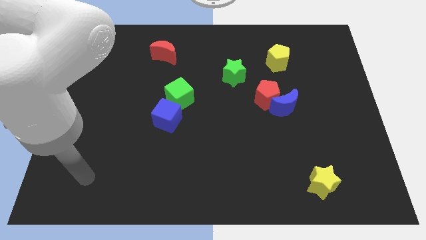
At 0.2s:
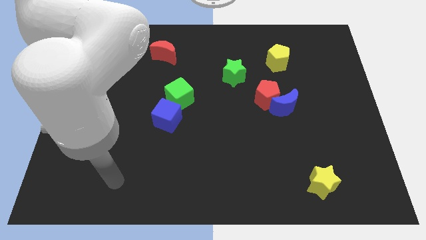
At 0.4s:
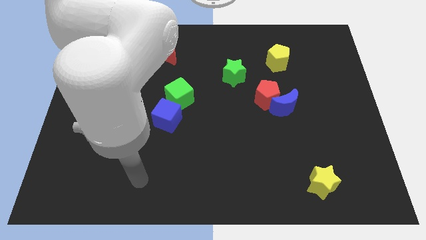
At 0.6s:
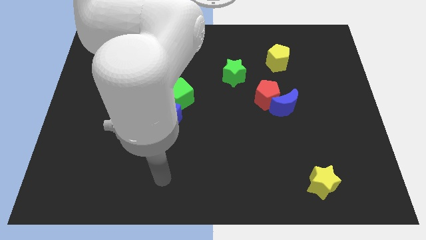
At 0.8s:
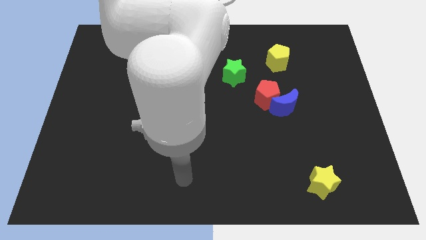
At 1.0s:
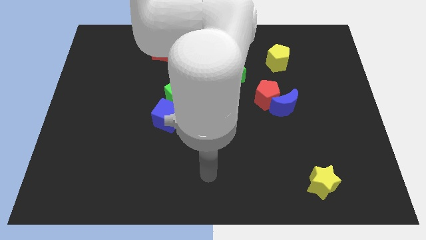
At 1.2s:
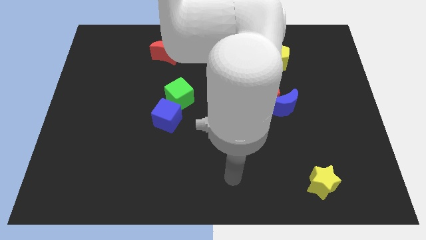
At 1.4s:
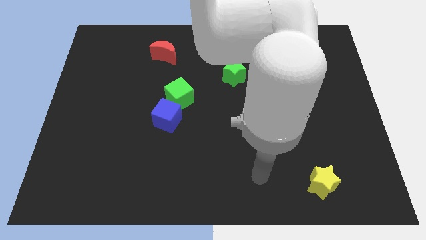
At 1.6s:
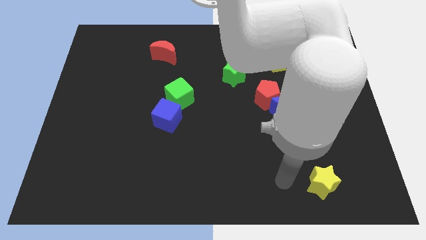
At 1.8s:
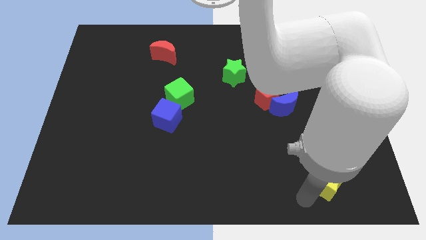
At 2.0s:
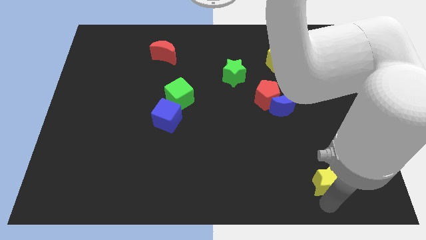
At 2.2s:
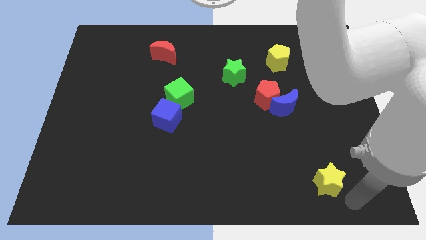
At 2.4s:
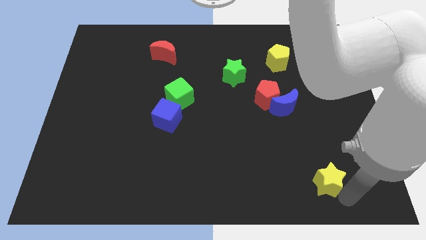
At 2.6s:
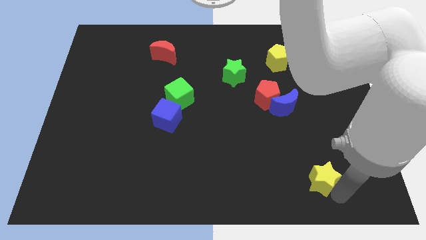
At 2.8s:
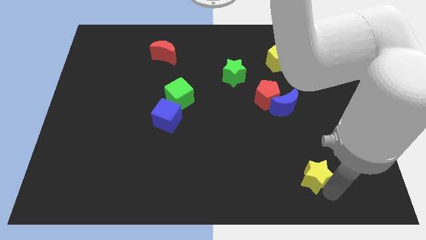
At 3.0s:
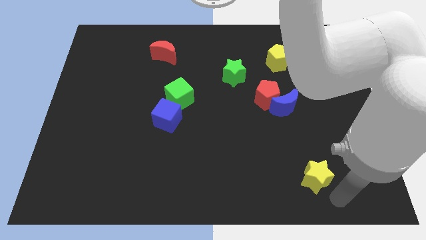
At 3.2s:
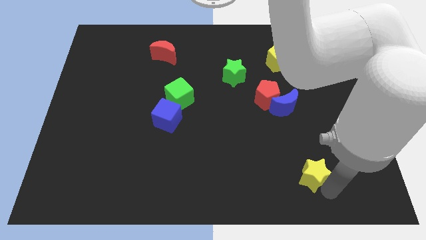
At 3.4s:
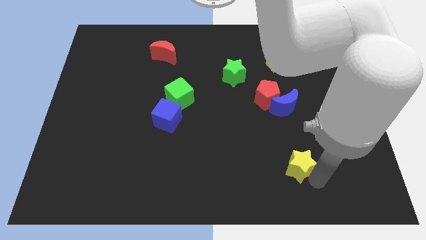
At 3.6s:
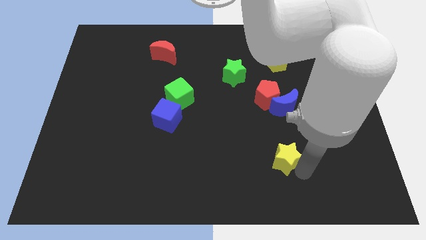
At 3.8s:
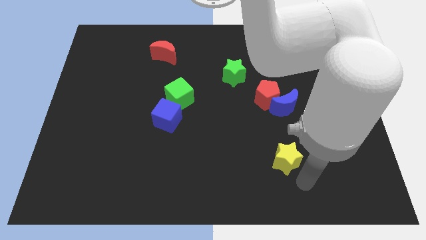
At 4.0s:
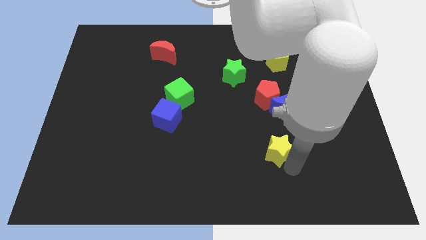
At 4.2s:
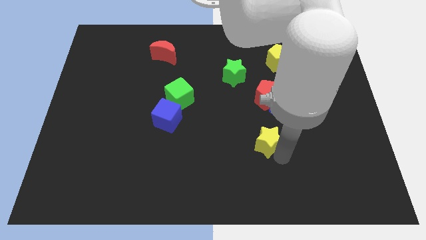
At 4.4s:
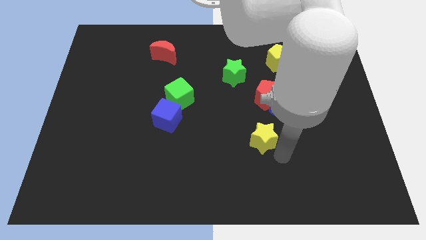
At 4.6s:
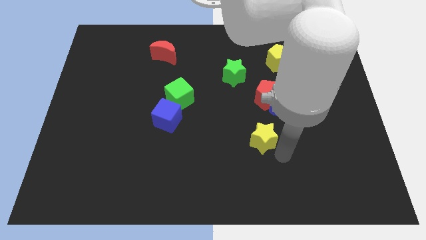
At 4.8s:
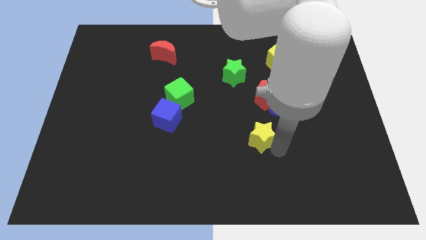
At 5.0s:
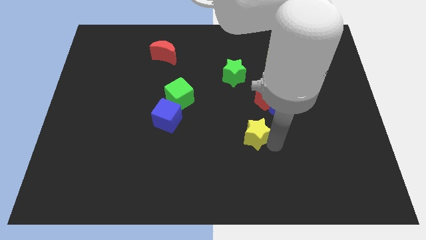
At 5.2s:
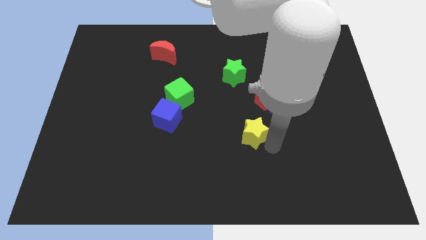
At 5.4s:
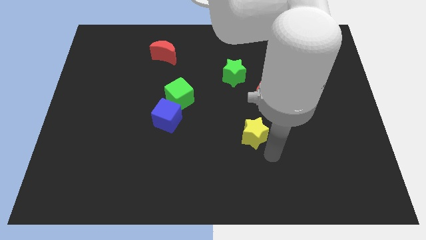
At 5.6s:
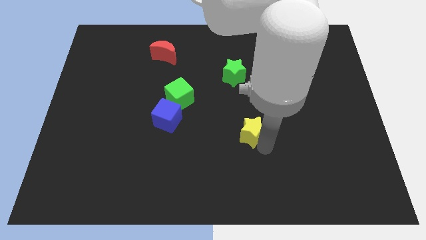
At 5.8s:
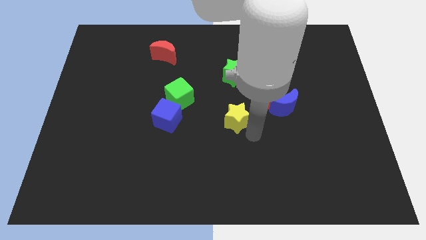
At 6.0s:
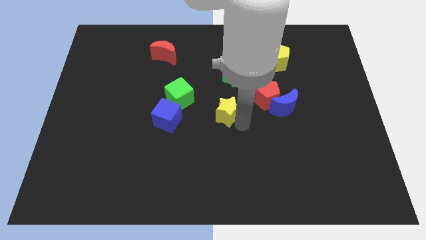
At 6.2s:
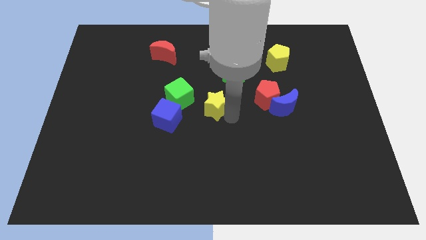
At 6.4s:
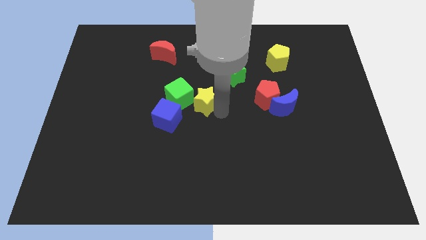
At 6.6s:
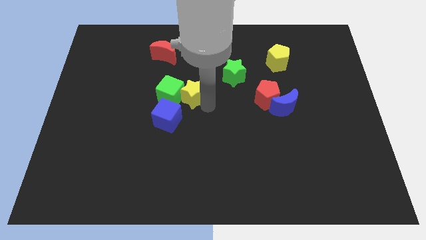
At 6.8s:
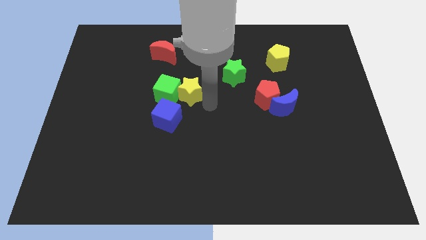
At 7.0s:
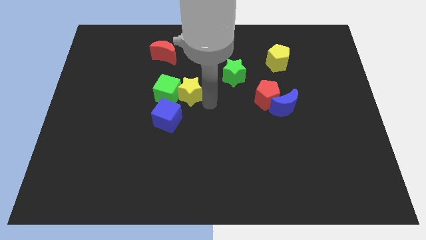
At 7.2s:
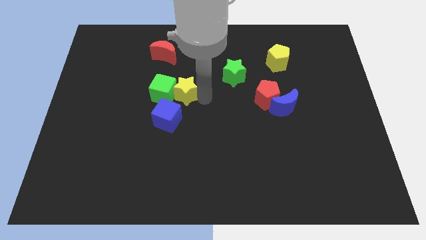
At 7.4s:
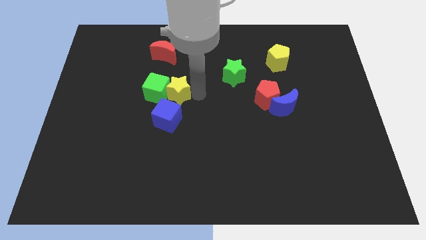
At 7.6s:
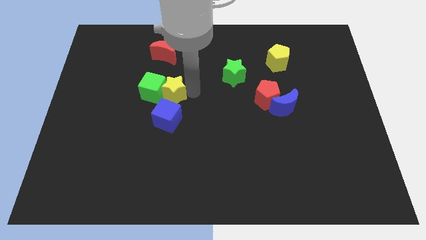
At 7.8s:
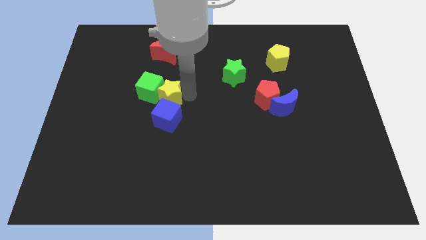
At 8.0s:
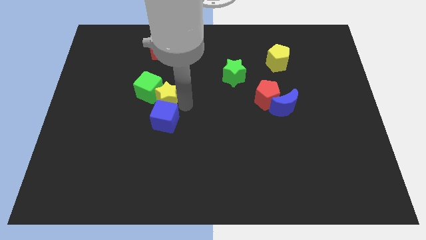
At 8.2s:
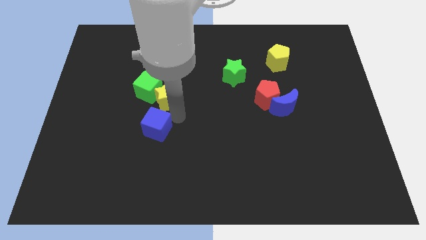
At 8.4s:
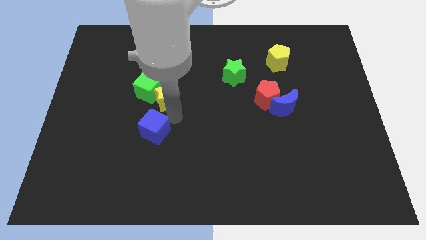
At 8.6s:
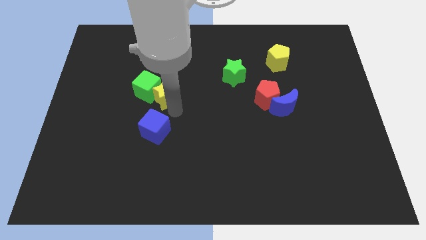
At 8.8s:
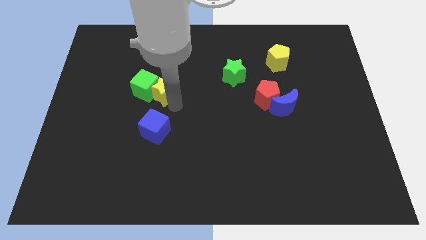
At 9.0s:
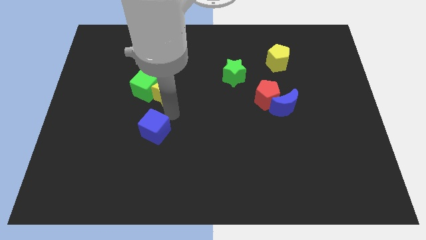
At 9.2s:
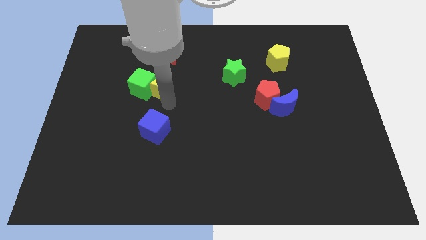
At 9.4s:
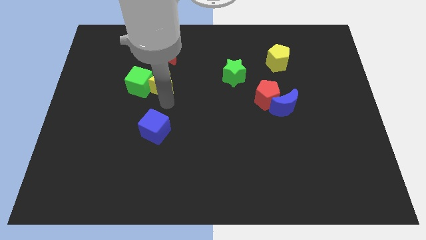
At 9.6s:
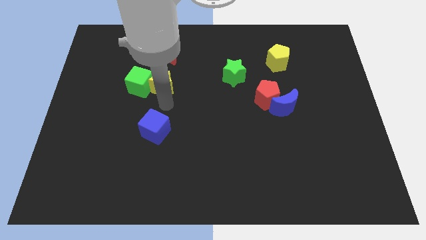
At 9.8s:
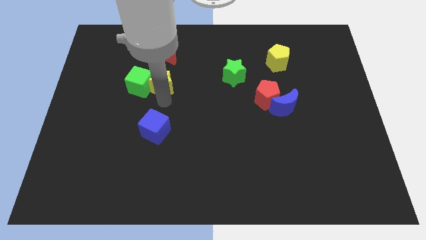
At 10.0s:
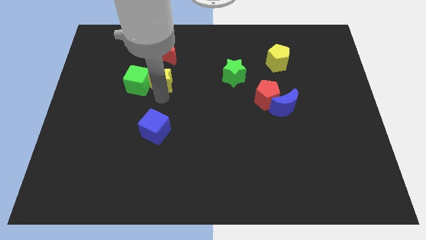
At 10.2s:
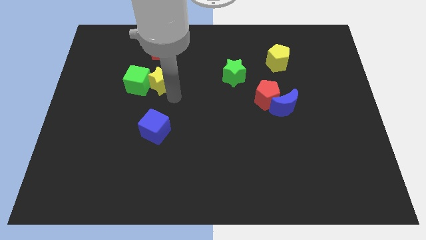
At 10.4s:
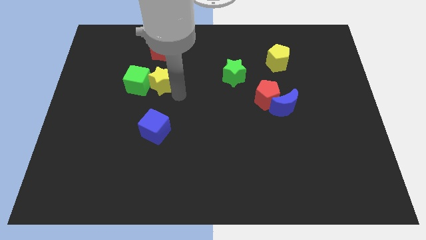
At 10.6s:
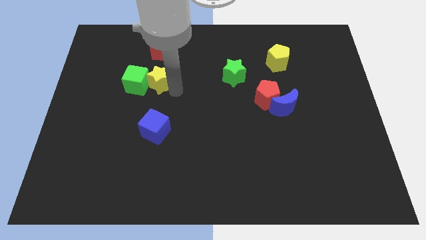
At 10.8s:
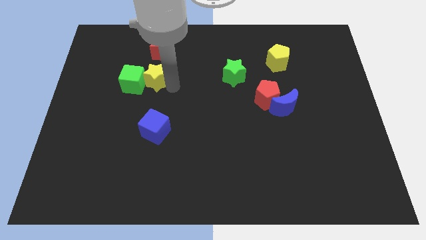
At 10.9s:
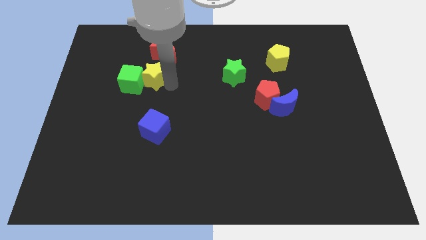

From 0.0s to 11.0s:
move the yellow star to the bottom left side of the red moon

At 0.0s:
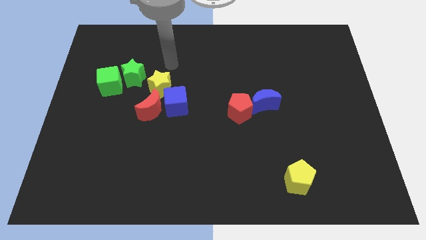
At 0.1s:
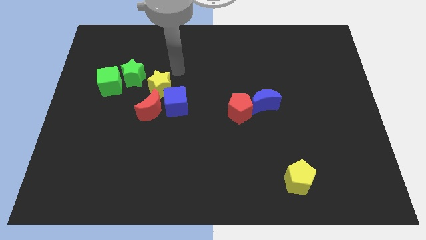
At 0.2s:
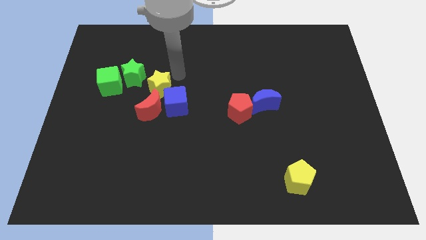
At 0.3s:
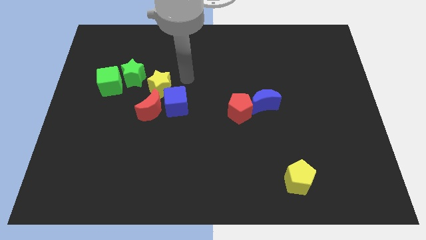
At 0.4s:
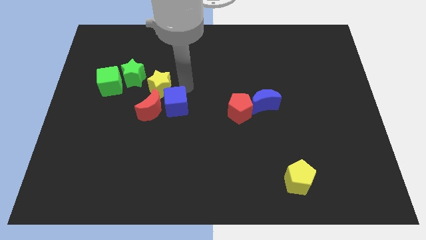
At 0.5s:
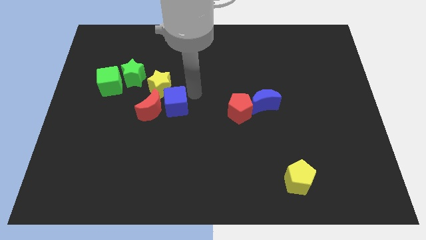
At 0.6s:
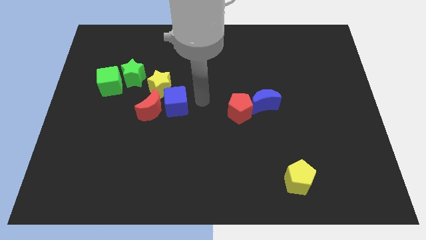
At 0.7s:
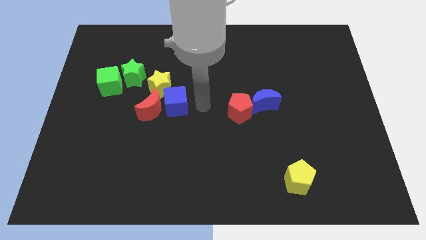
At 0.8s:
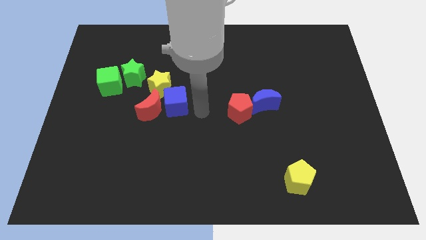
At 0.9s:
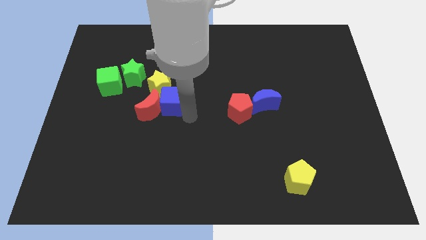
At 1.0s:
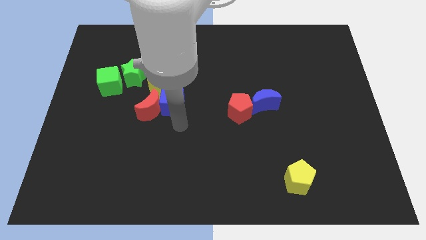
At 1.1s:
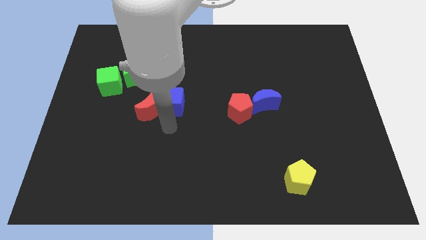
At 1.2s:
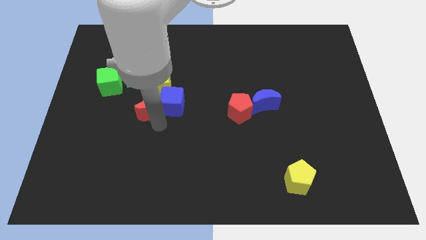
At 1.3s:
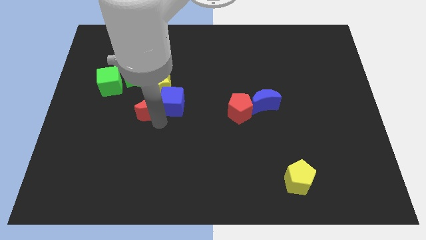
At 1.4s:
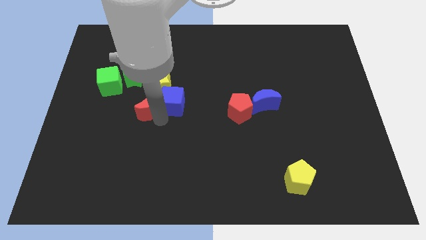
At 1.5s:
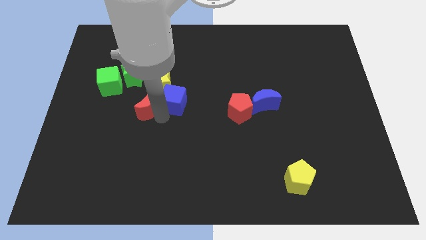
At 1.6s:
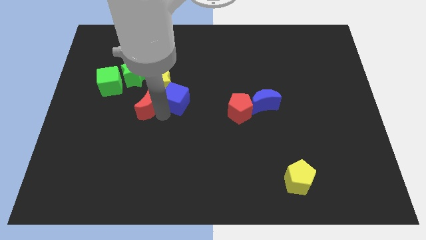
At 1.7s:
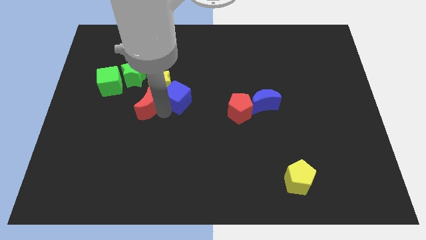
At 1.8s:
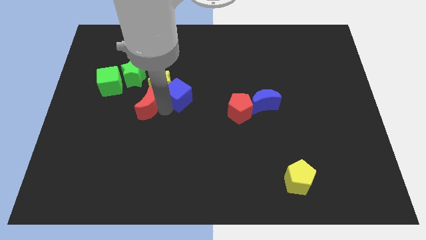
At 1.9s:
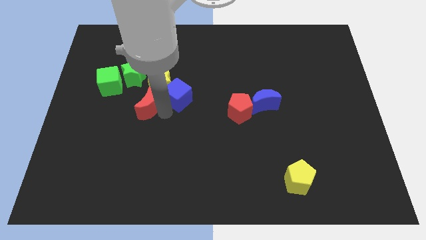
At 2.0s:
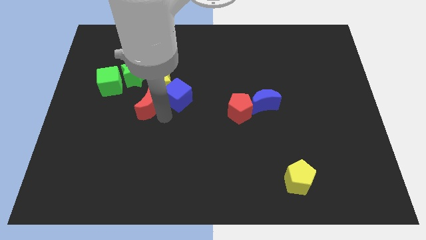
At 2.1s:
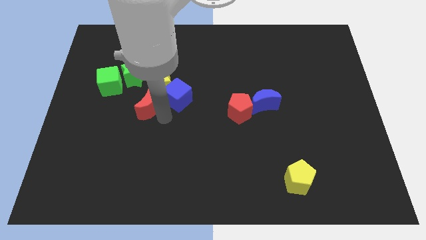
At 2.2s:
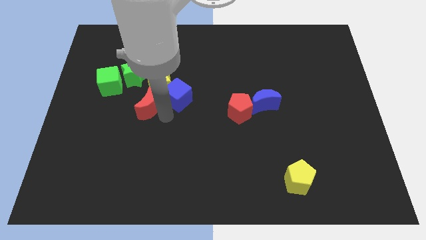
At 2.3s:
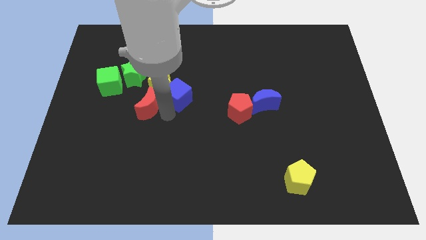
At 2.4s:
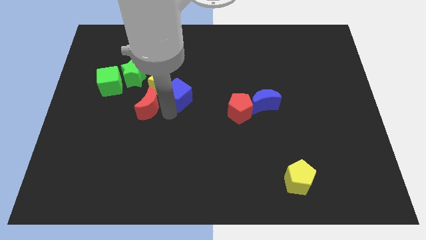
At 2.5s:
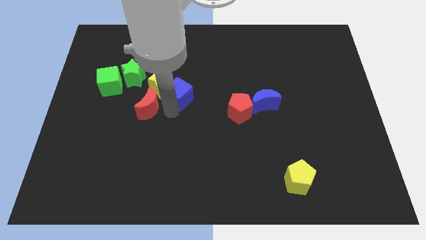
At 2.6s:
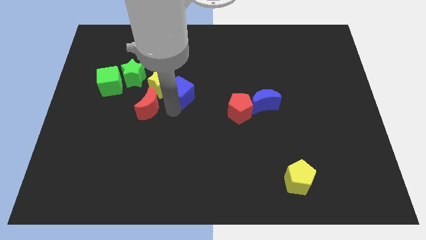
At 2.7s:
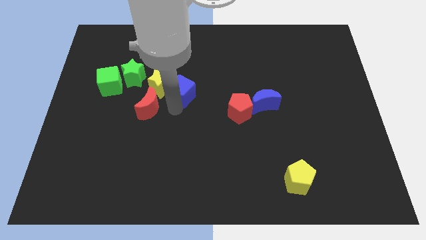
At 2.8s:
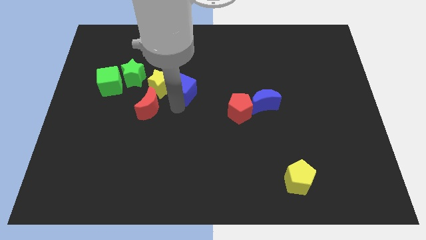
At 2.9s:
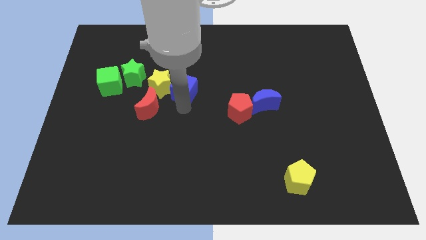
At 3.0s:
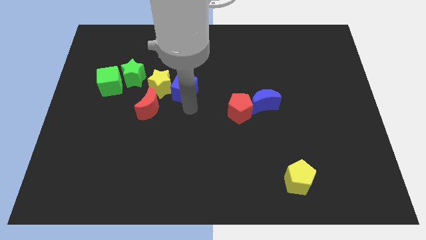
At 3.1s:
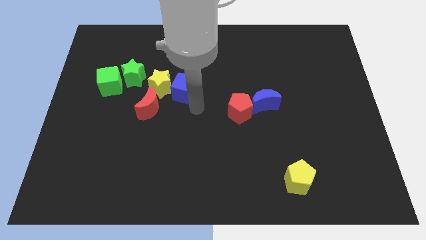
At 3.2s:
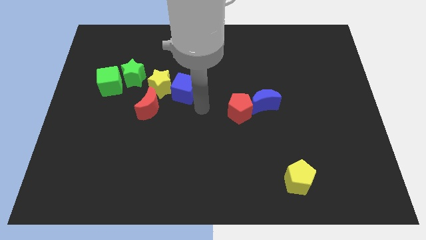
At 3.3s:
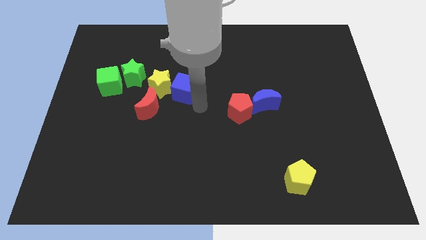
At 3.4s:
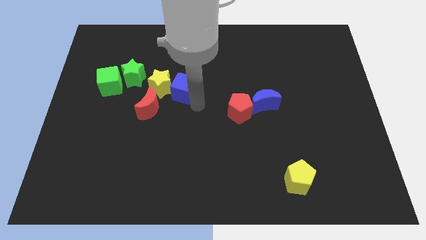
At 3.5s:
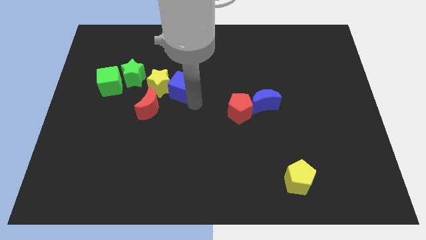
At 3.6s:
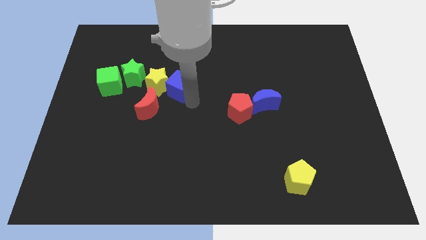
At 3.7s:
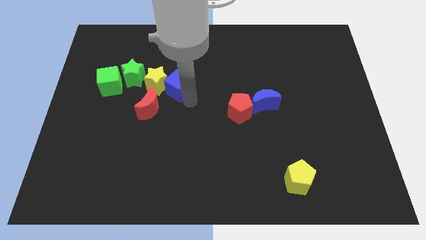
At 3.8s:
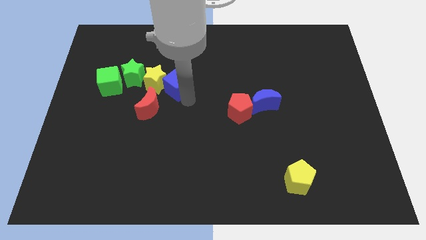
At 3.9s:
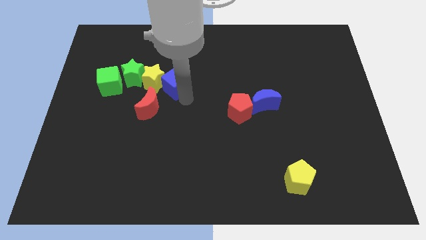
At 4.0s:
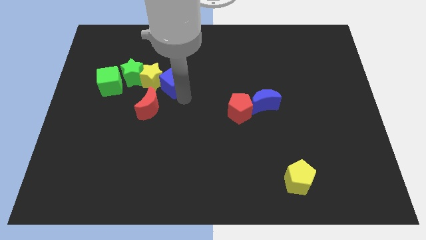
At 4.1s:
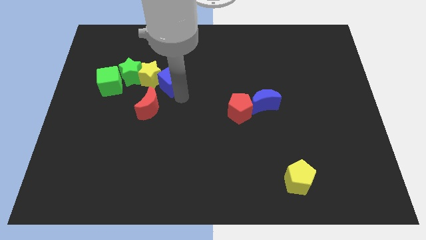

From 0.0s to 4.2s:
push the blue cube above the red moon
